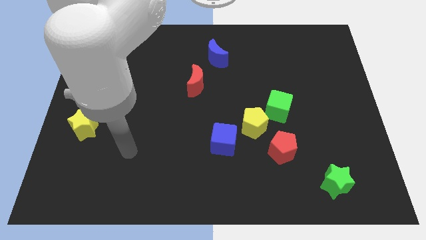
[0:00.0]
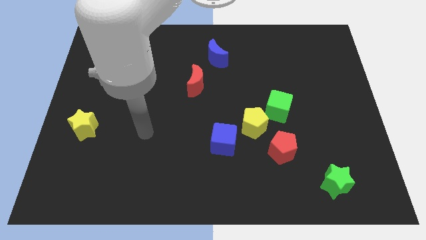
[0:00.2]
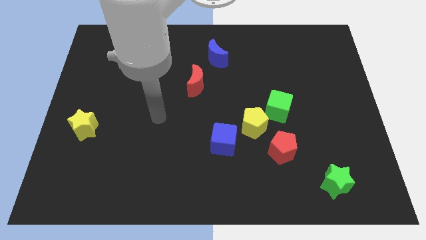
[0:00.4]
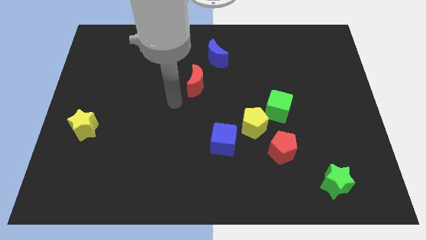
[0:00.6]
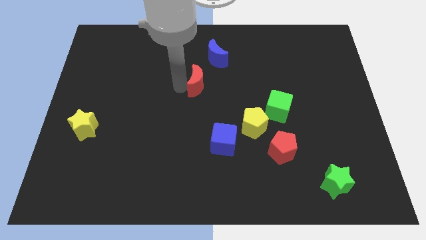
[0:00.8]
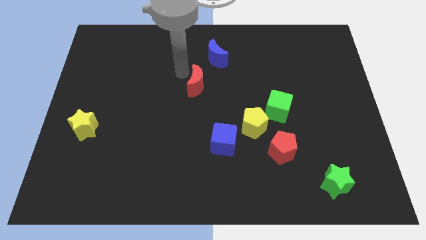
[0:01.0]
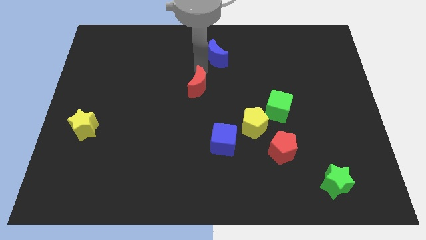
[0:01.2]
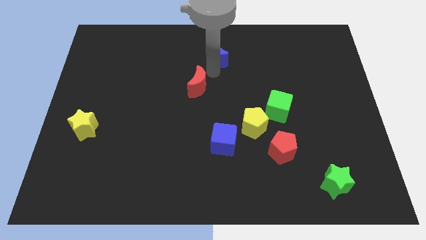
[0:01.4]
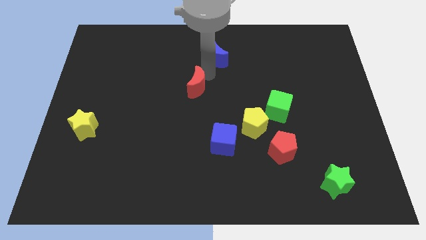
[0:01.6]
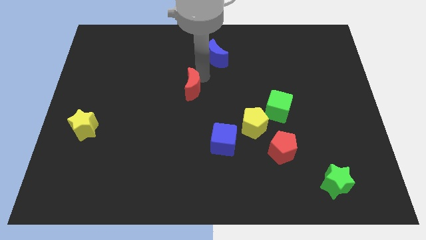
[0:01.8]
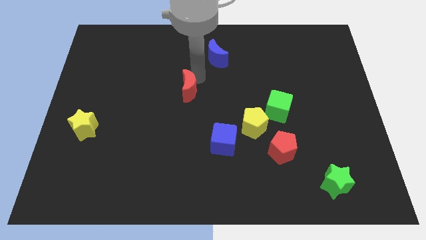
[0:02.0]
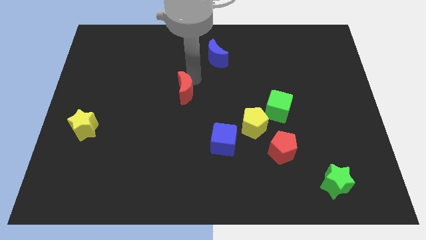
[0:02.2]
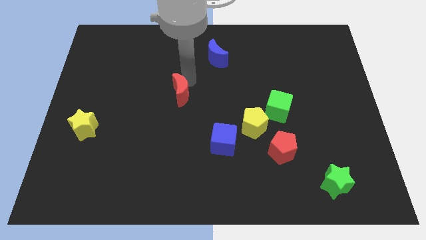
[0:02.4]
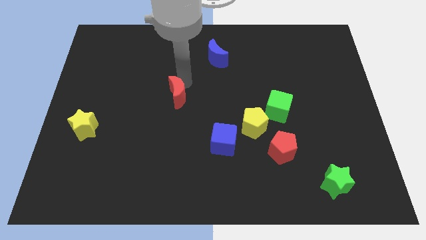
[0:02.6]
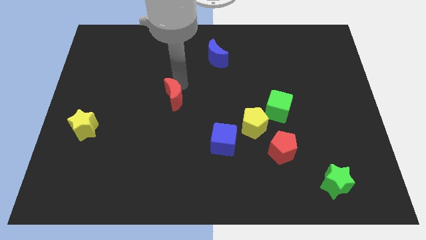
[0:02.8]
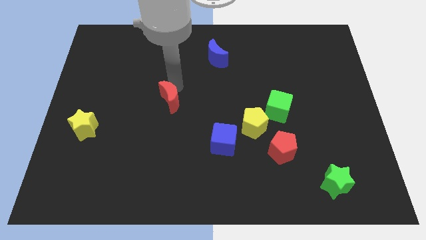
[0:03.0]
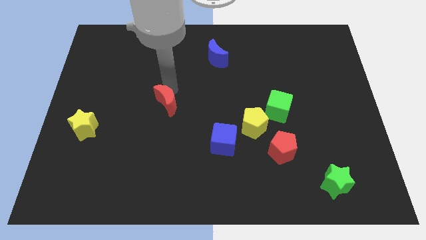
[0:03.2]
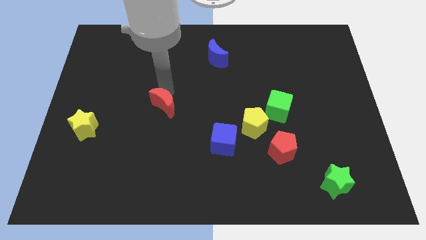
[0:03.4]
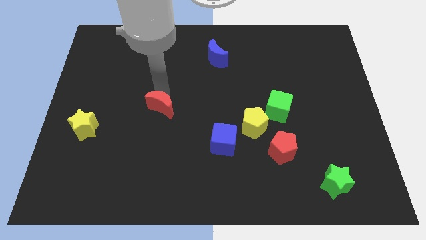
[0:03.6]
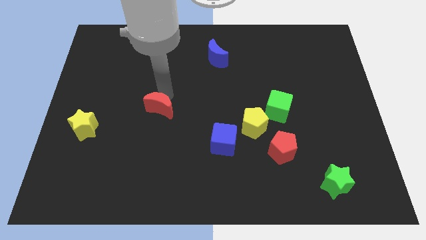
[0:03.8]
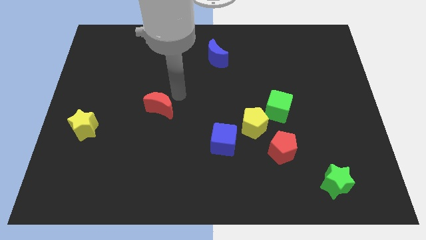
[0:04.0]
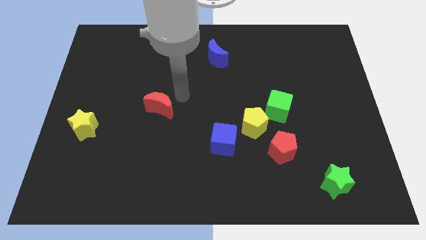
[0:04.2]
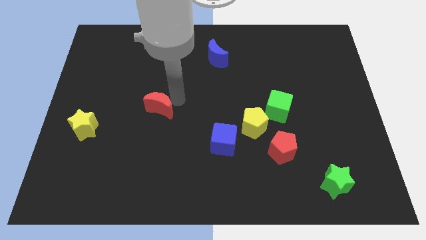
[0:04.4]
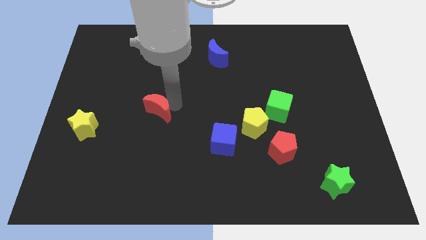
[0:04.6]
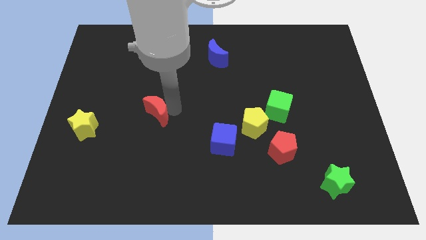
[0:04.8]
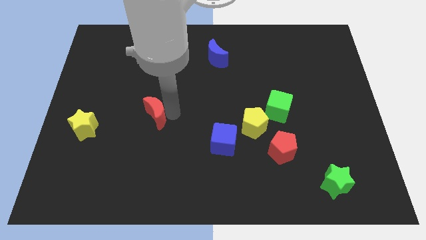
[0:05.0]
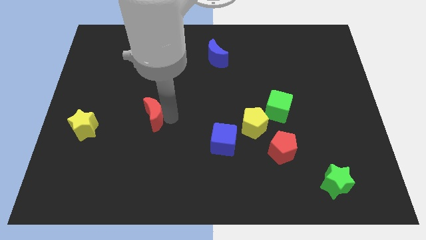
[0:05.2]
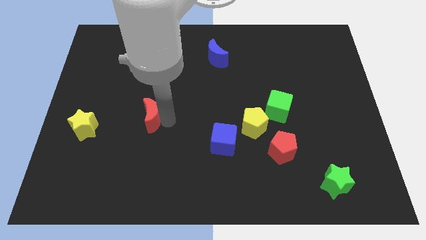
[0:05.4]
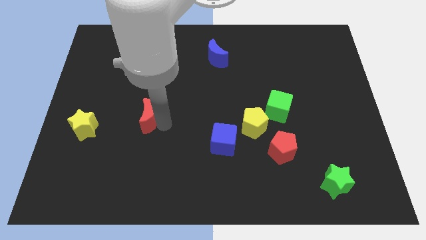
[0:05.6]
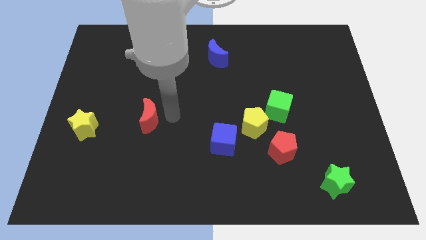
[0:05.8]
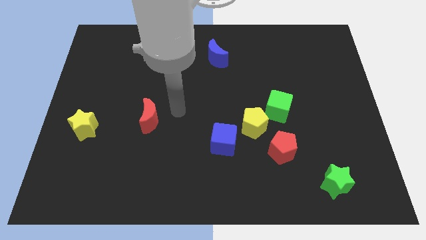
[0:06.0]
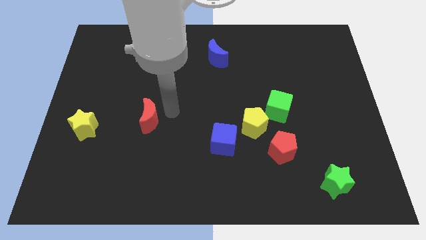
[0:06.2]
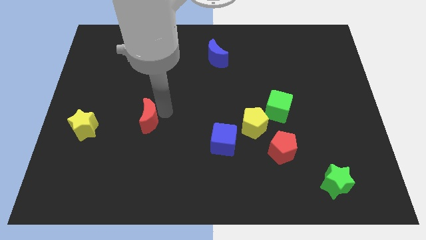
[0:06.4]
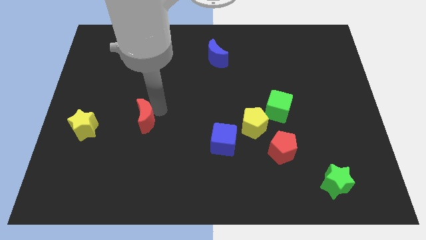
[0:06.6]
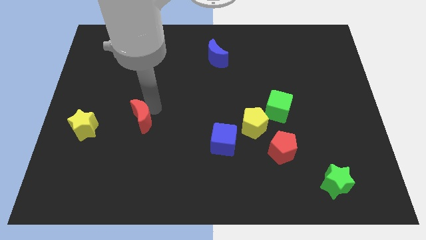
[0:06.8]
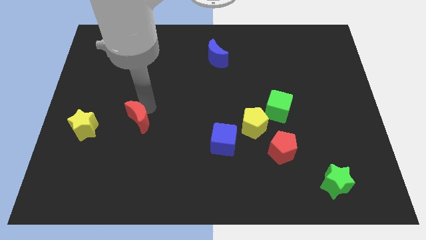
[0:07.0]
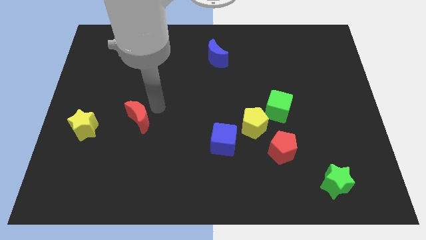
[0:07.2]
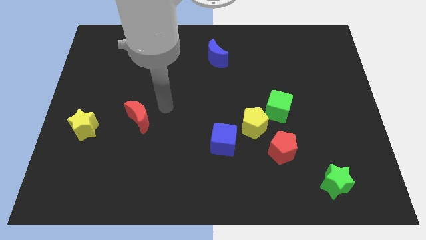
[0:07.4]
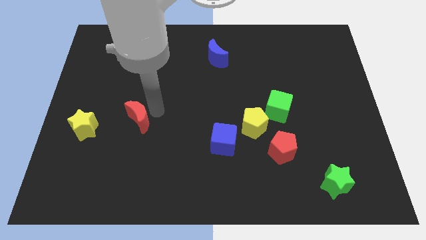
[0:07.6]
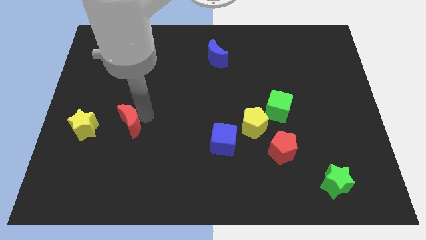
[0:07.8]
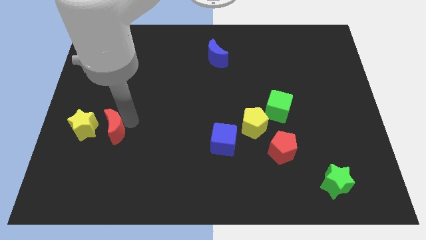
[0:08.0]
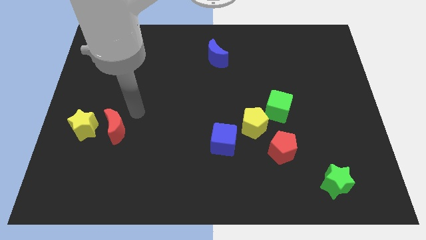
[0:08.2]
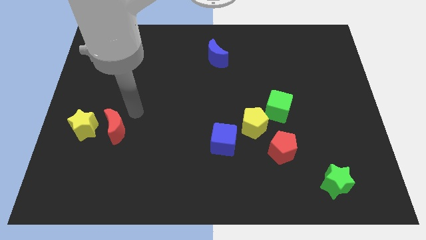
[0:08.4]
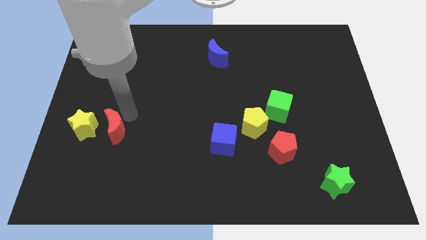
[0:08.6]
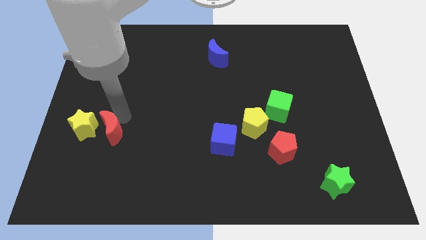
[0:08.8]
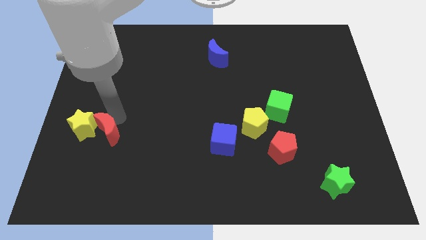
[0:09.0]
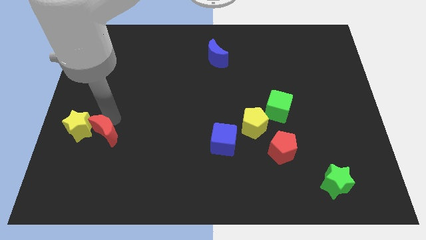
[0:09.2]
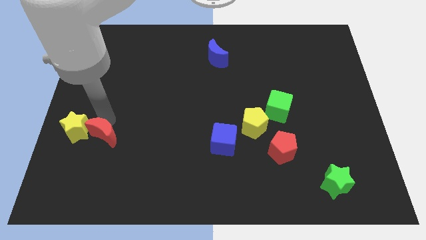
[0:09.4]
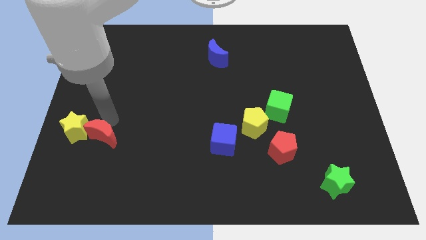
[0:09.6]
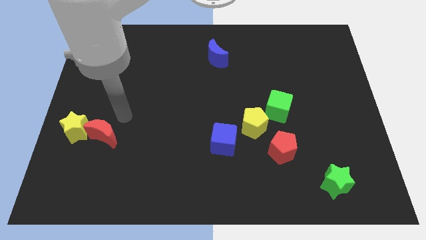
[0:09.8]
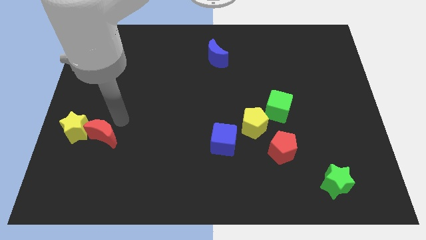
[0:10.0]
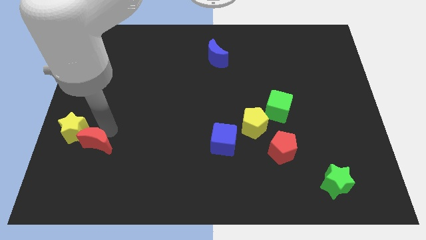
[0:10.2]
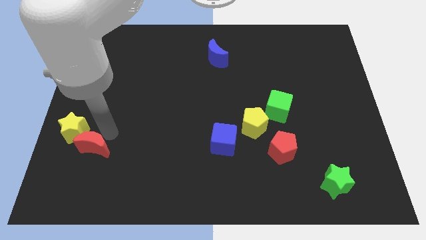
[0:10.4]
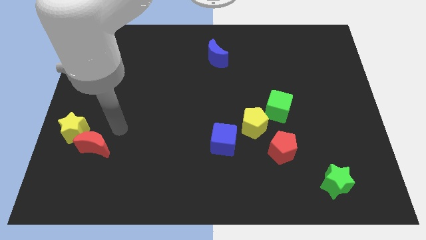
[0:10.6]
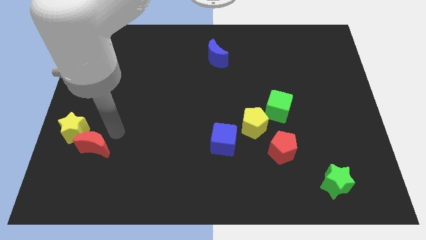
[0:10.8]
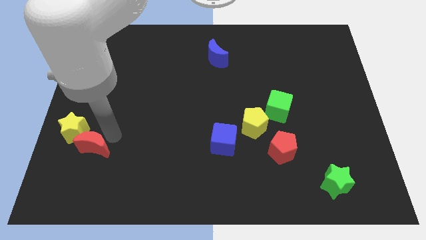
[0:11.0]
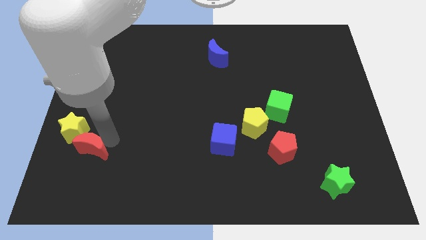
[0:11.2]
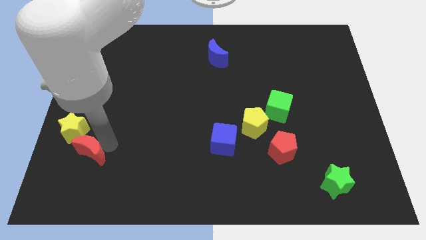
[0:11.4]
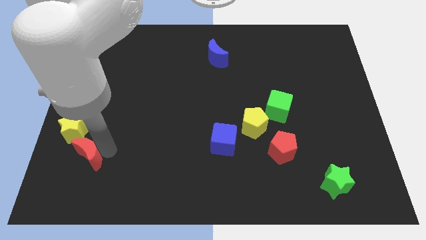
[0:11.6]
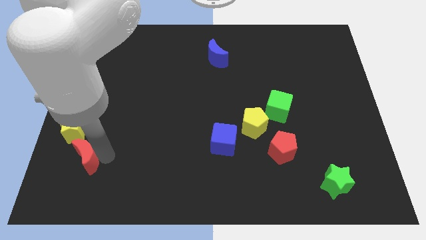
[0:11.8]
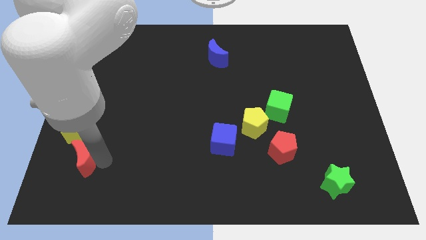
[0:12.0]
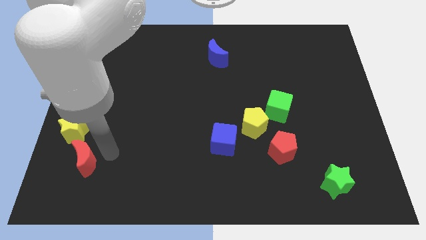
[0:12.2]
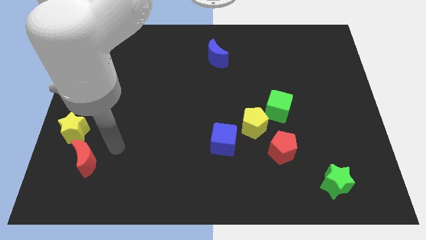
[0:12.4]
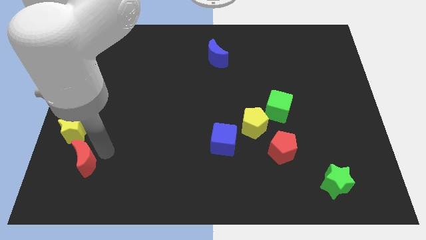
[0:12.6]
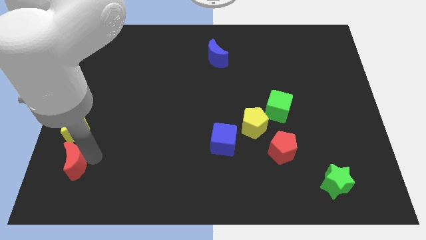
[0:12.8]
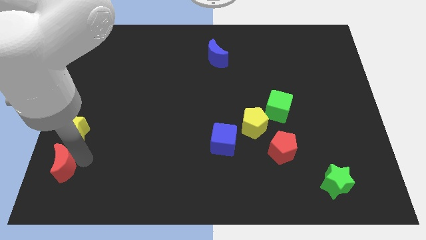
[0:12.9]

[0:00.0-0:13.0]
push the red moon to the lower left corner
